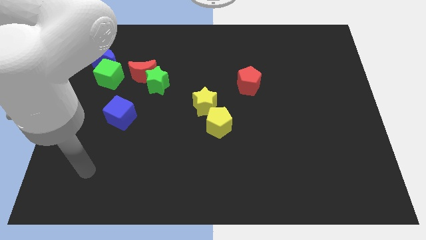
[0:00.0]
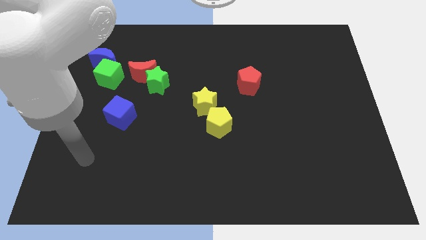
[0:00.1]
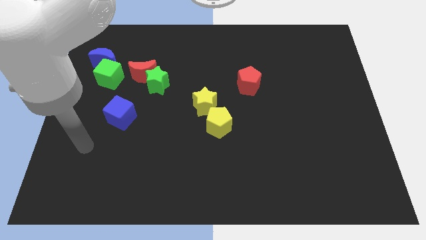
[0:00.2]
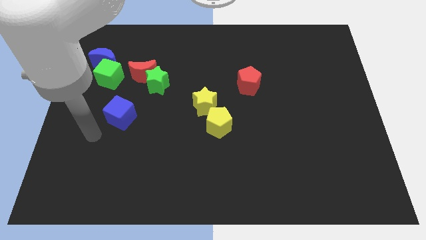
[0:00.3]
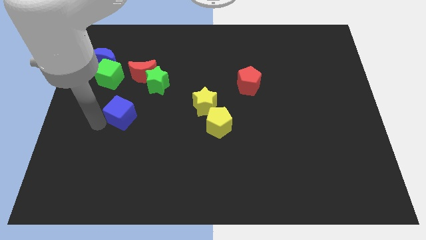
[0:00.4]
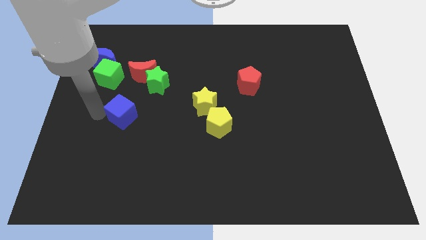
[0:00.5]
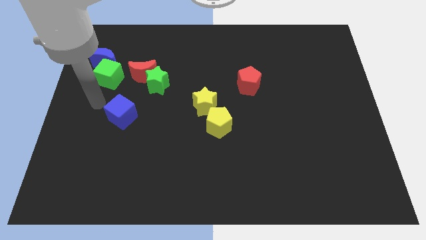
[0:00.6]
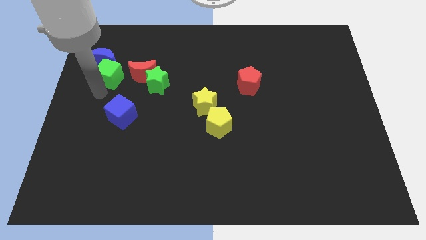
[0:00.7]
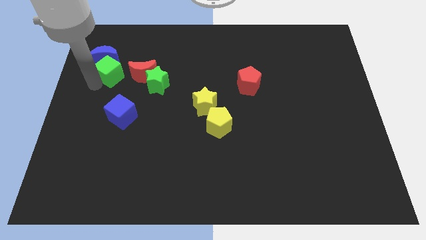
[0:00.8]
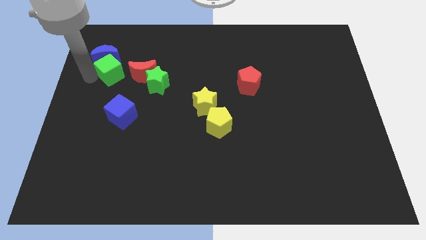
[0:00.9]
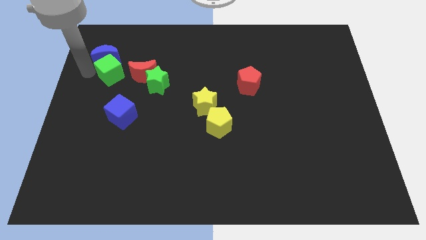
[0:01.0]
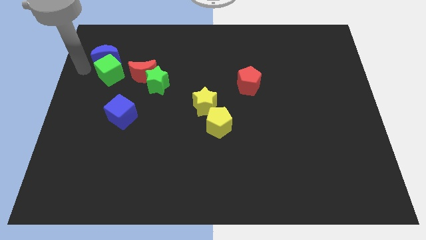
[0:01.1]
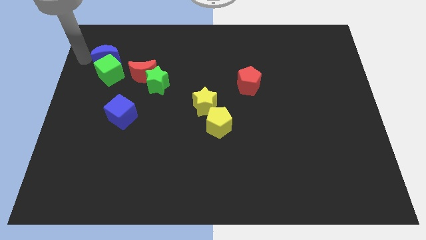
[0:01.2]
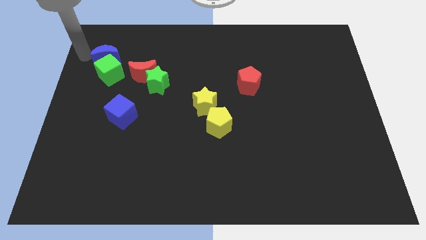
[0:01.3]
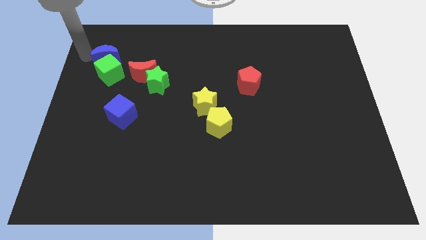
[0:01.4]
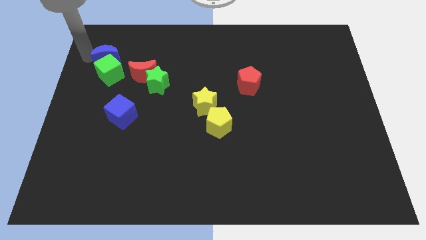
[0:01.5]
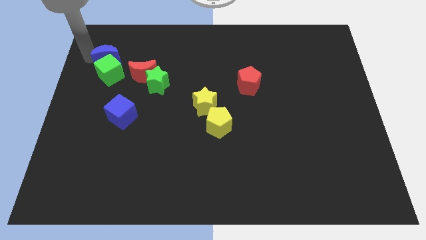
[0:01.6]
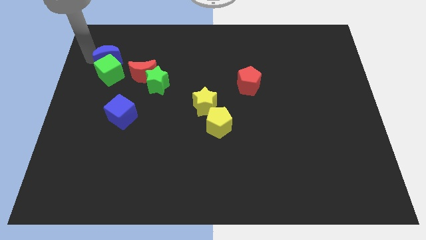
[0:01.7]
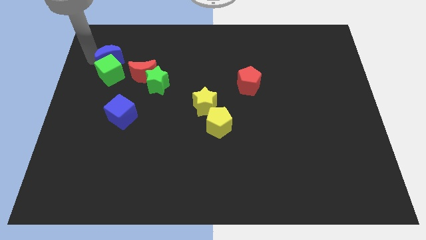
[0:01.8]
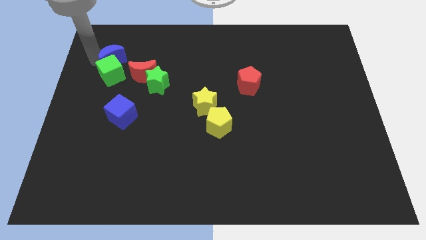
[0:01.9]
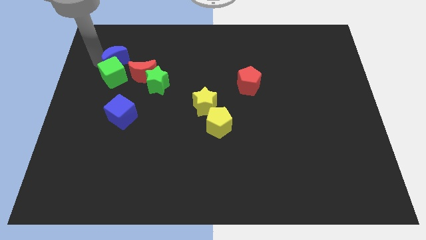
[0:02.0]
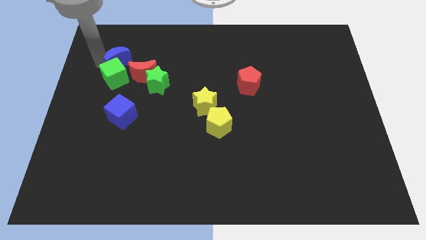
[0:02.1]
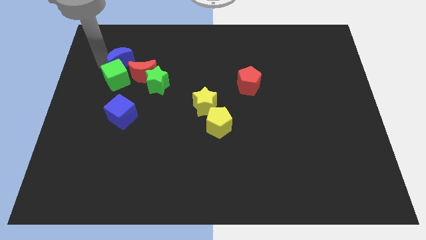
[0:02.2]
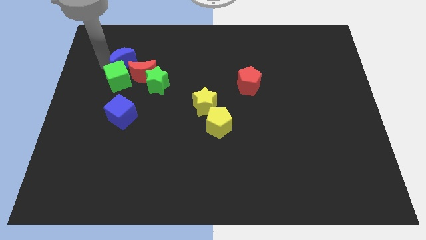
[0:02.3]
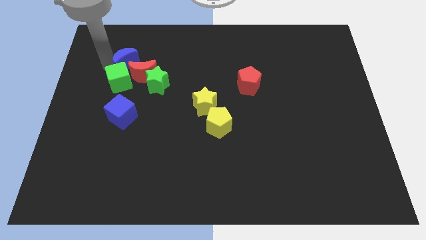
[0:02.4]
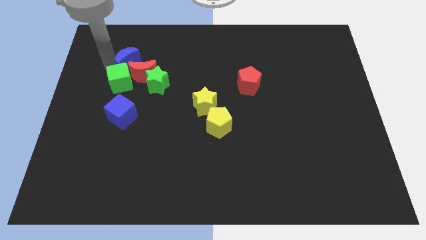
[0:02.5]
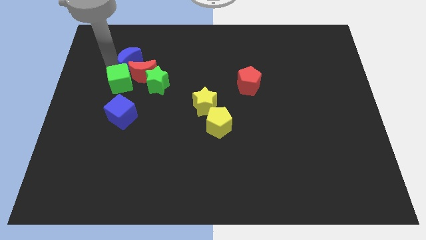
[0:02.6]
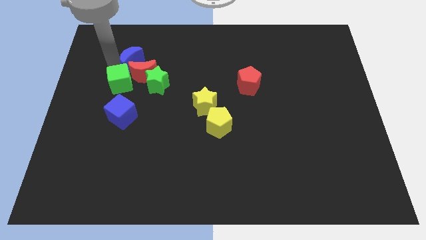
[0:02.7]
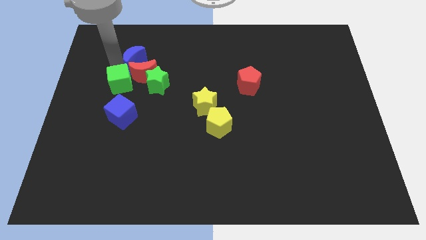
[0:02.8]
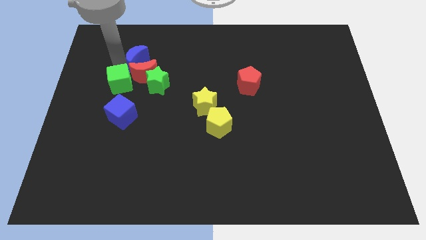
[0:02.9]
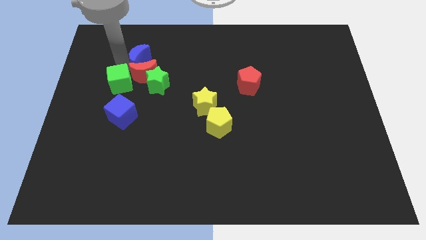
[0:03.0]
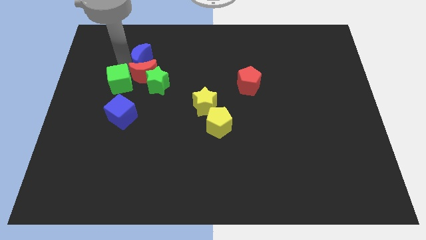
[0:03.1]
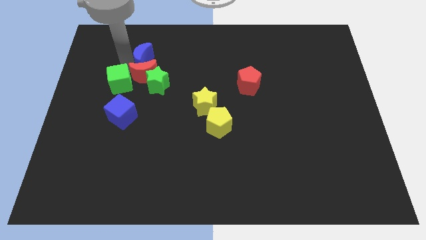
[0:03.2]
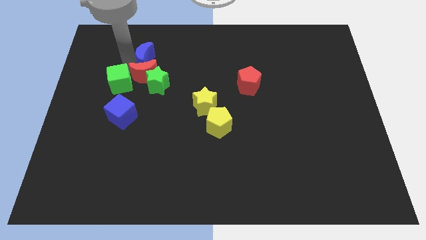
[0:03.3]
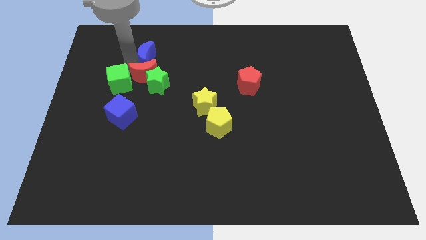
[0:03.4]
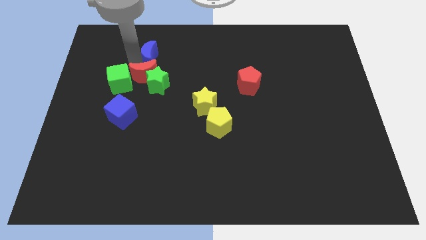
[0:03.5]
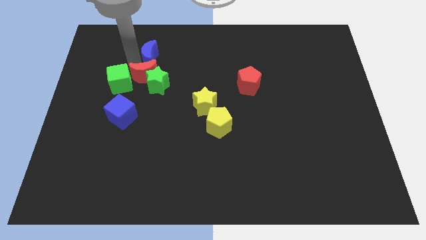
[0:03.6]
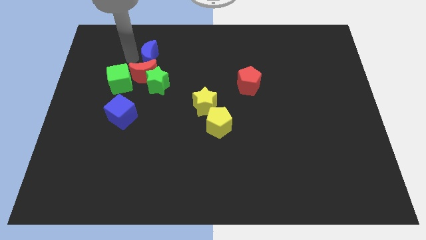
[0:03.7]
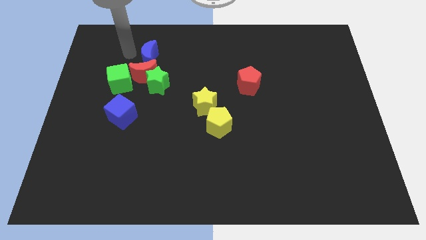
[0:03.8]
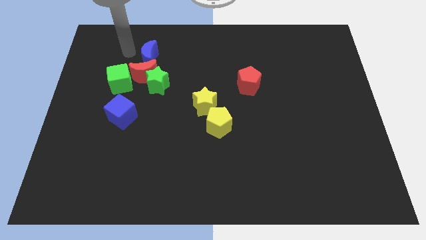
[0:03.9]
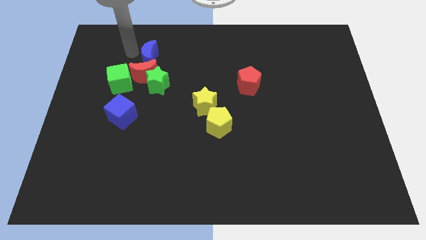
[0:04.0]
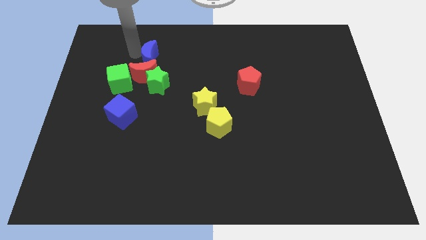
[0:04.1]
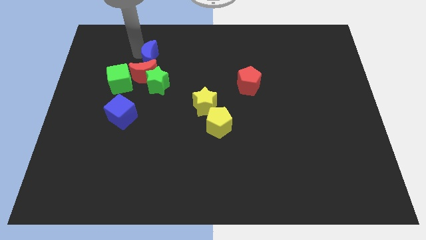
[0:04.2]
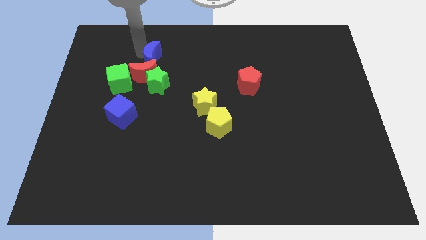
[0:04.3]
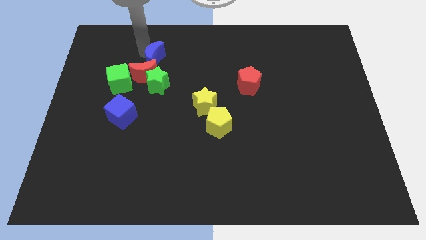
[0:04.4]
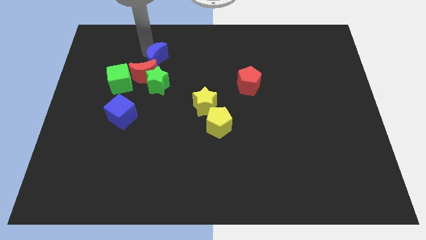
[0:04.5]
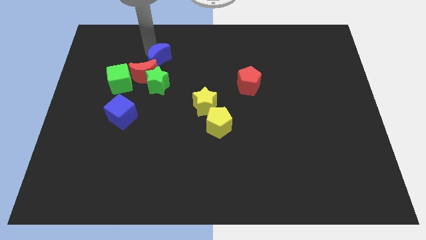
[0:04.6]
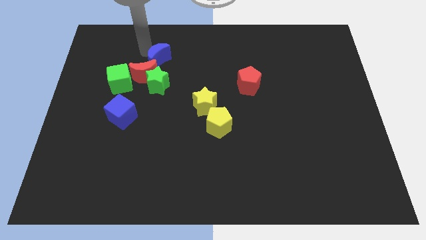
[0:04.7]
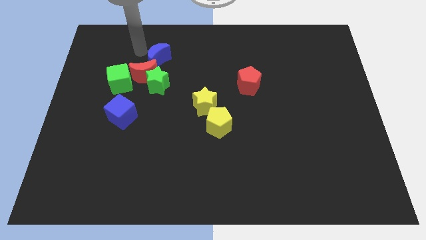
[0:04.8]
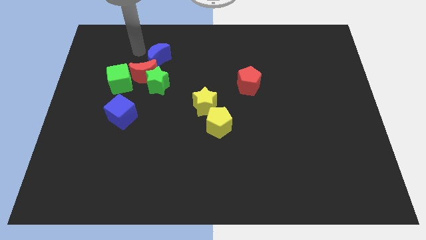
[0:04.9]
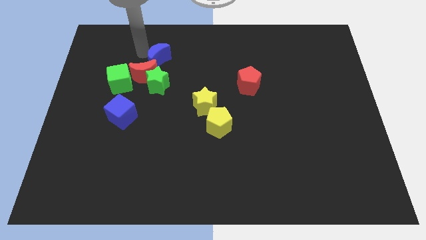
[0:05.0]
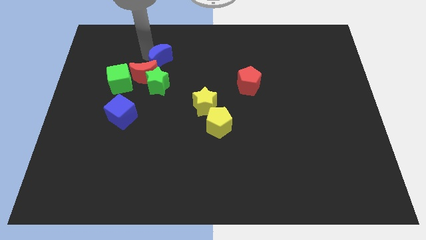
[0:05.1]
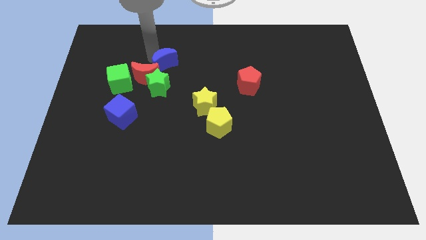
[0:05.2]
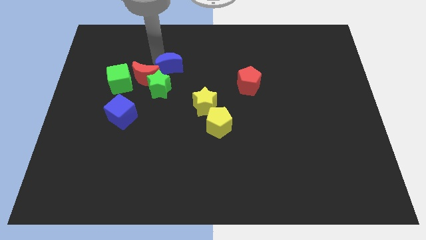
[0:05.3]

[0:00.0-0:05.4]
slide the blue moon to the top right side of the green star
